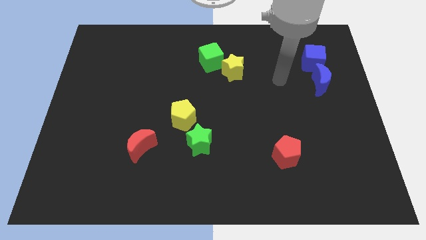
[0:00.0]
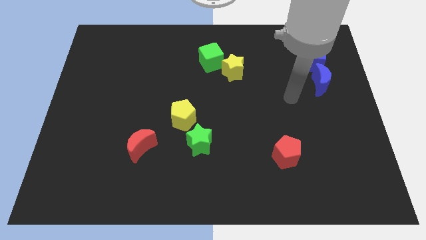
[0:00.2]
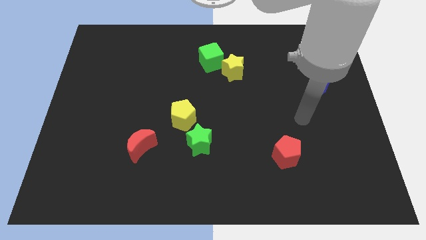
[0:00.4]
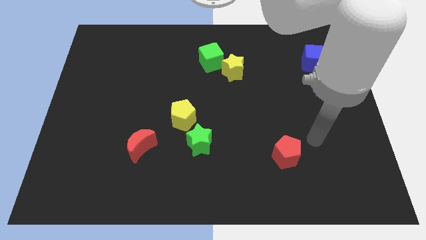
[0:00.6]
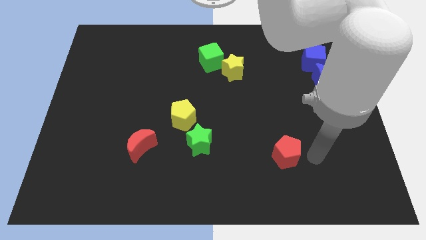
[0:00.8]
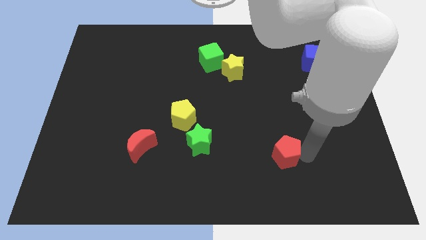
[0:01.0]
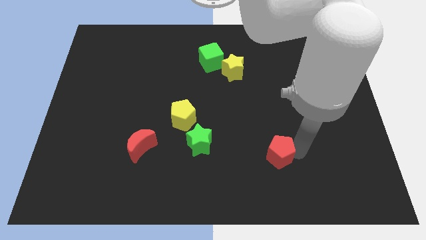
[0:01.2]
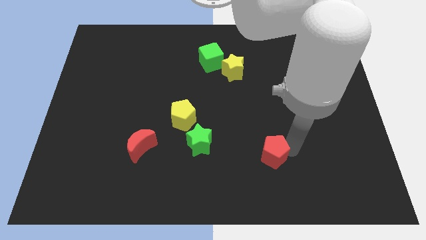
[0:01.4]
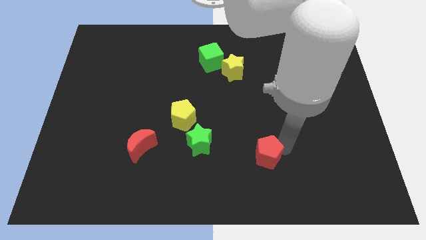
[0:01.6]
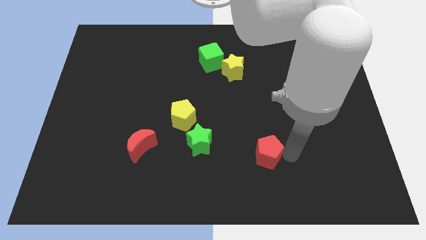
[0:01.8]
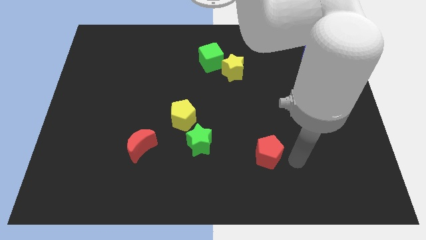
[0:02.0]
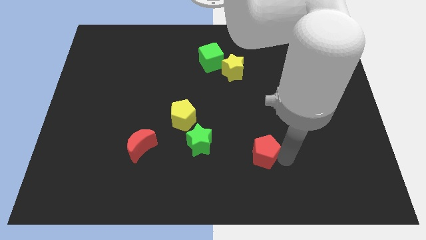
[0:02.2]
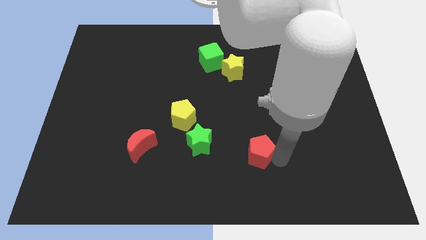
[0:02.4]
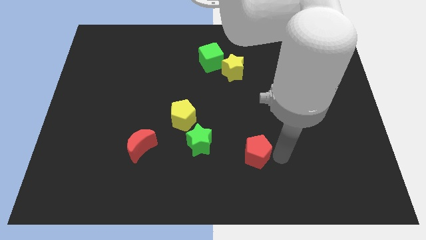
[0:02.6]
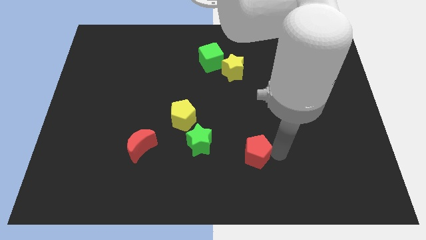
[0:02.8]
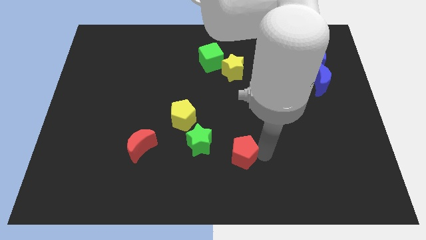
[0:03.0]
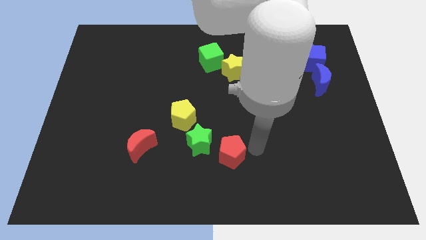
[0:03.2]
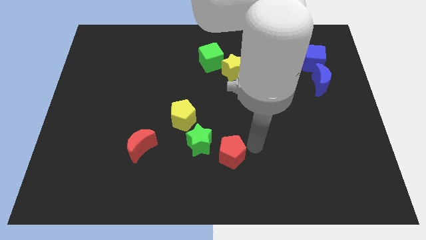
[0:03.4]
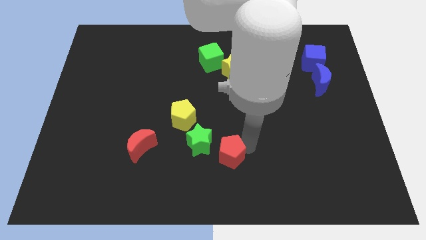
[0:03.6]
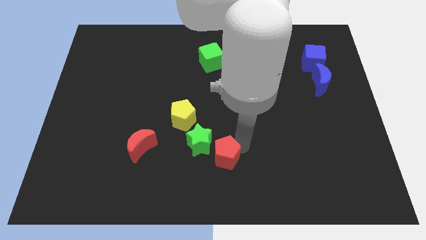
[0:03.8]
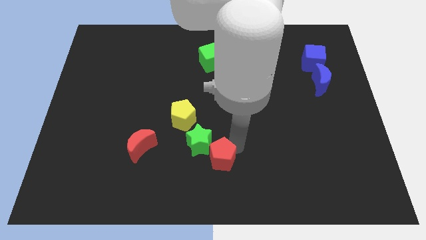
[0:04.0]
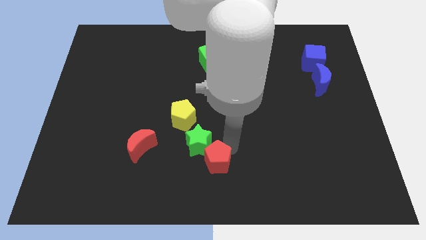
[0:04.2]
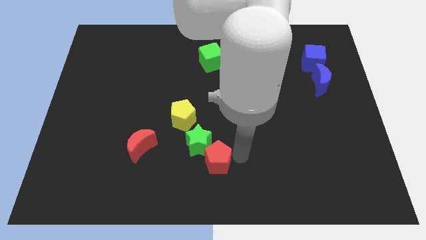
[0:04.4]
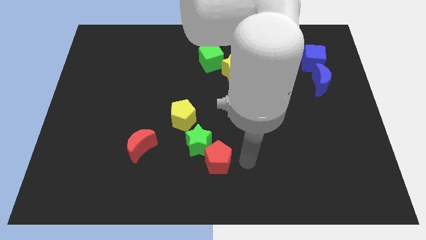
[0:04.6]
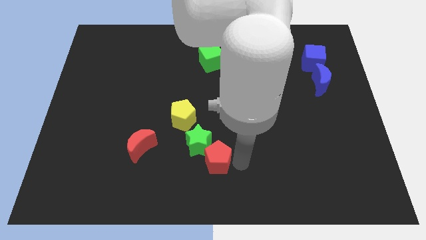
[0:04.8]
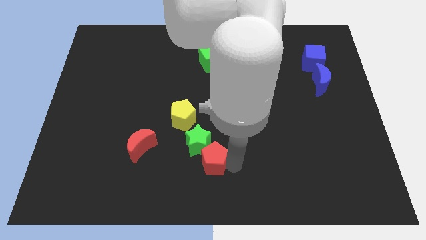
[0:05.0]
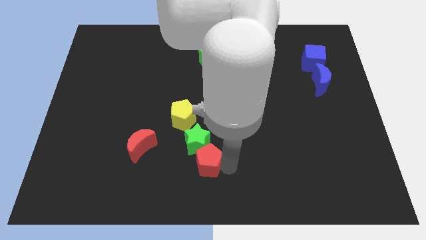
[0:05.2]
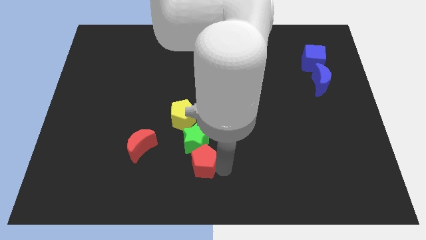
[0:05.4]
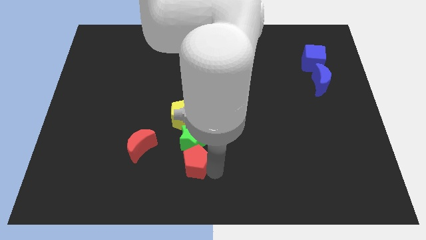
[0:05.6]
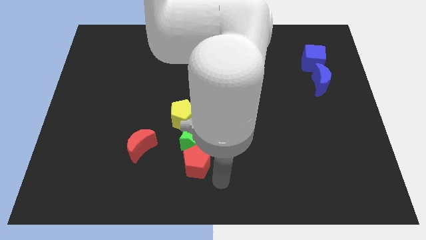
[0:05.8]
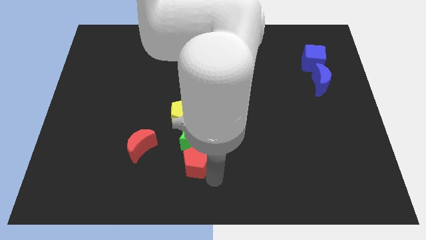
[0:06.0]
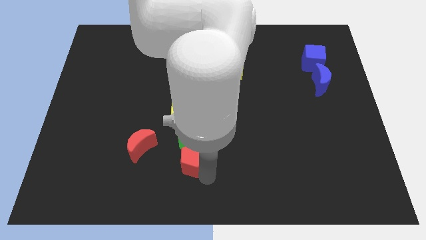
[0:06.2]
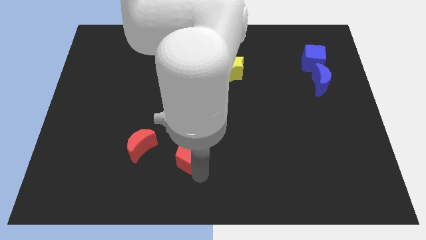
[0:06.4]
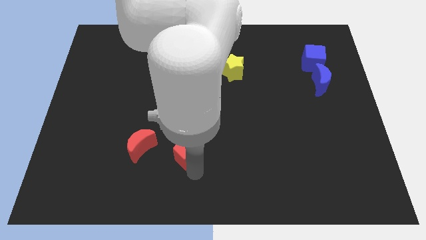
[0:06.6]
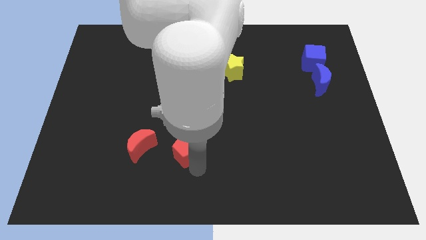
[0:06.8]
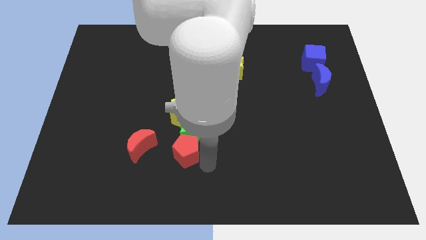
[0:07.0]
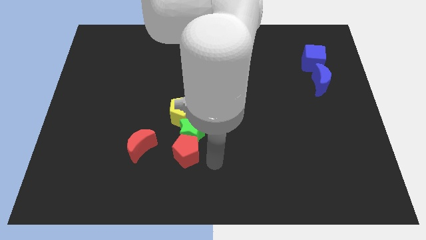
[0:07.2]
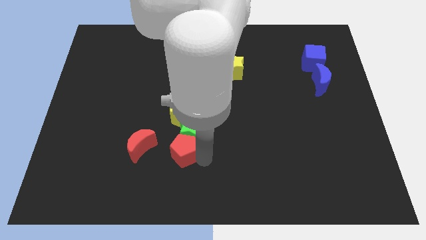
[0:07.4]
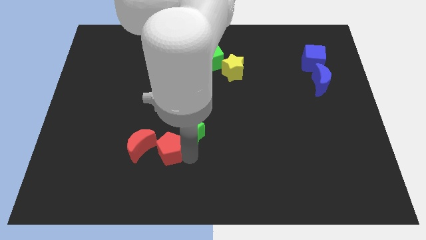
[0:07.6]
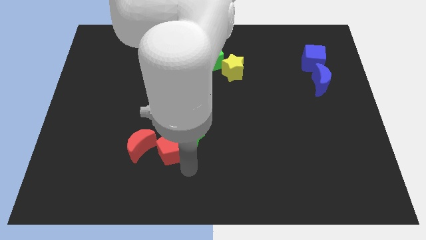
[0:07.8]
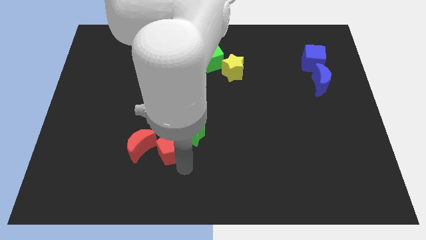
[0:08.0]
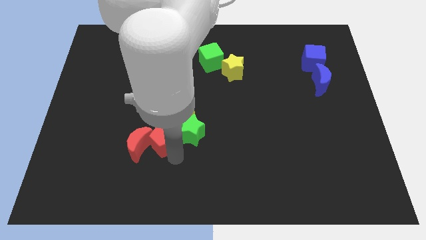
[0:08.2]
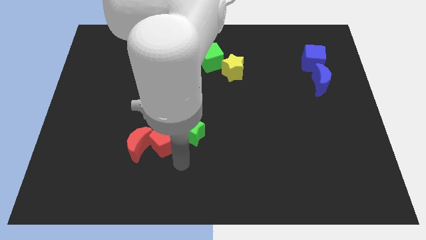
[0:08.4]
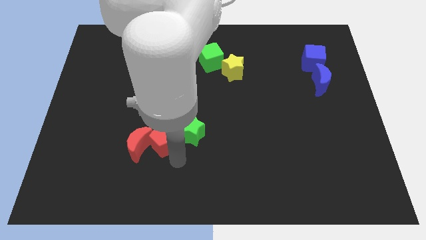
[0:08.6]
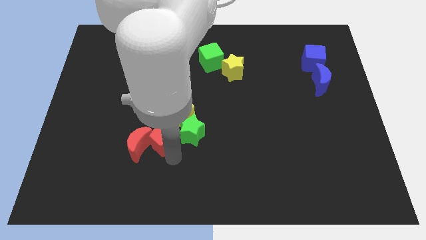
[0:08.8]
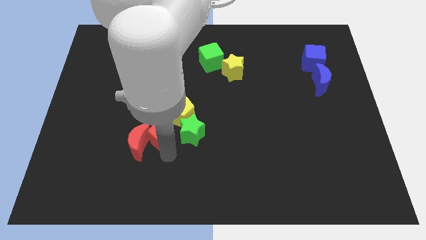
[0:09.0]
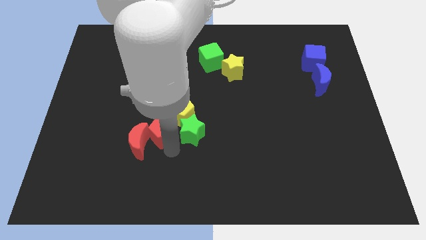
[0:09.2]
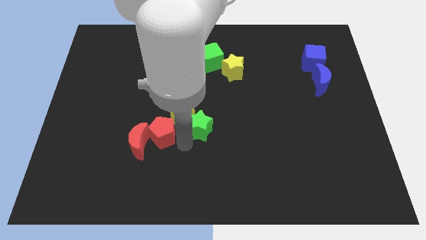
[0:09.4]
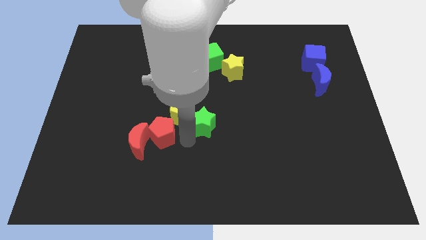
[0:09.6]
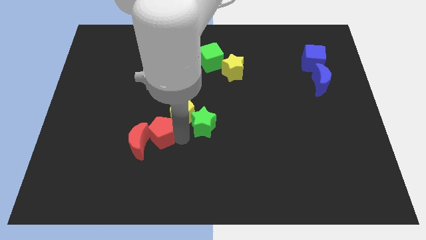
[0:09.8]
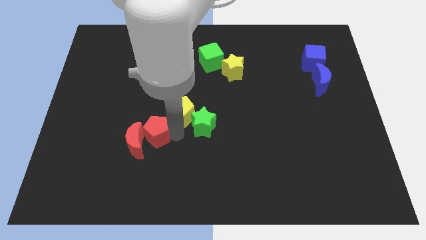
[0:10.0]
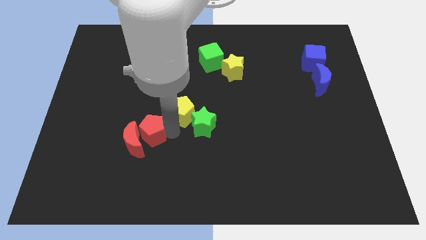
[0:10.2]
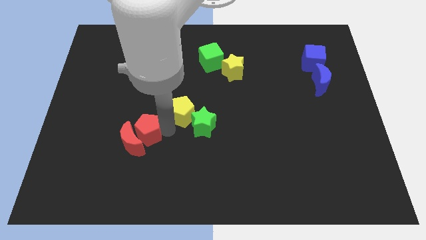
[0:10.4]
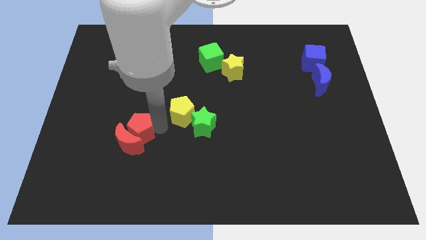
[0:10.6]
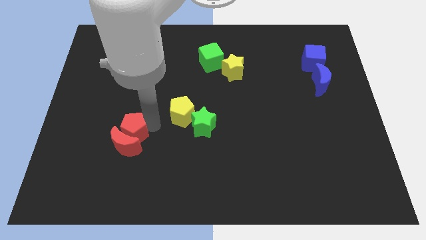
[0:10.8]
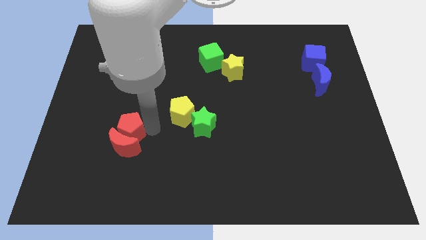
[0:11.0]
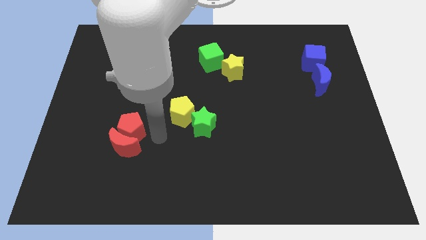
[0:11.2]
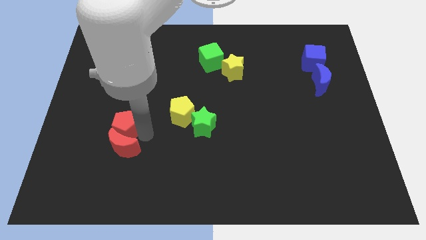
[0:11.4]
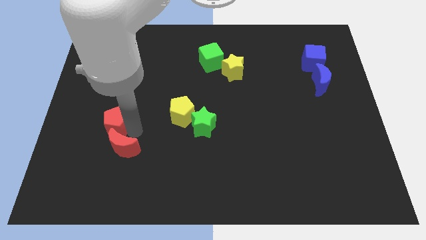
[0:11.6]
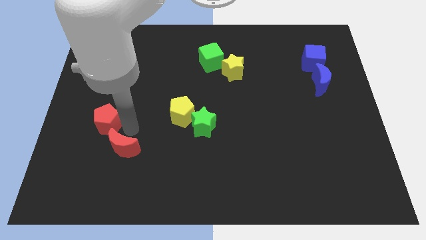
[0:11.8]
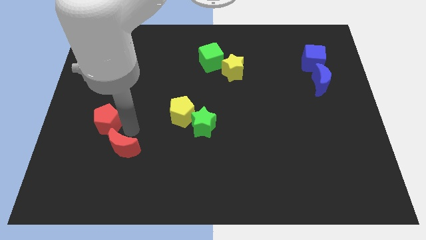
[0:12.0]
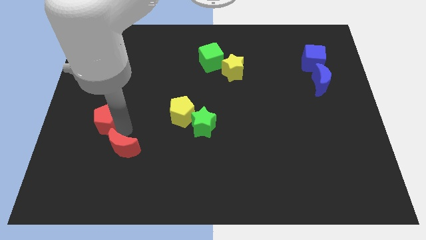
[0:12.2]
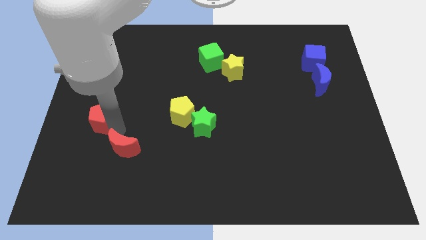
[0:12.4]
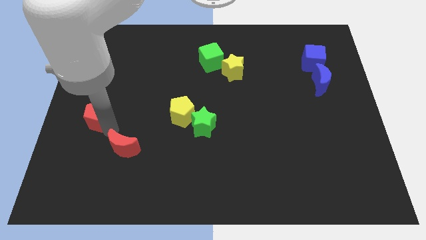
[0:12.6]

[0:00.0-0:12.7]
push the red pentagon to the left side

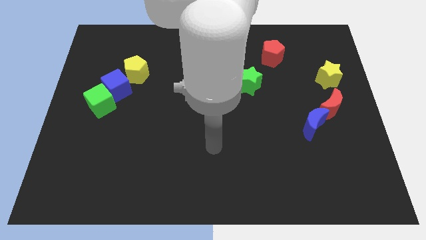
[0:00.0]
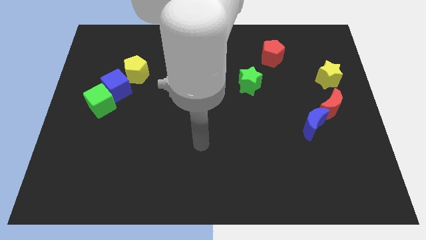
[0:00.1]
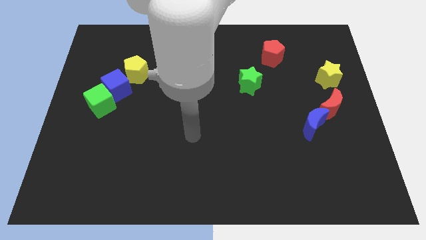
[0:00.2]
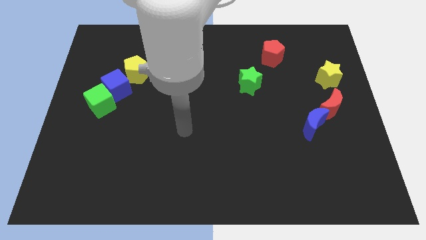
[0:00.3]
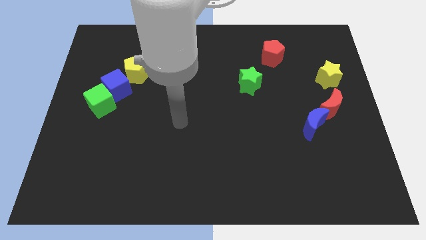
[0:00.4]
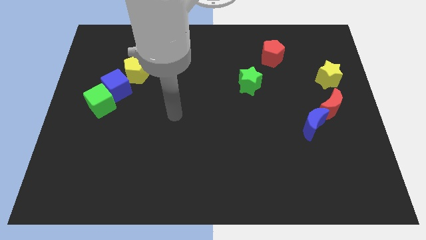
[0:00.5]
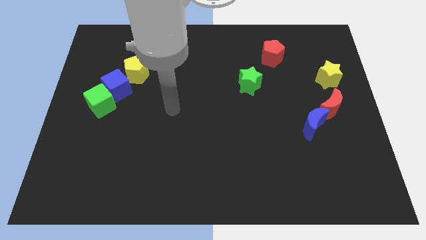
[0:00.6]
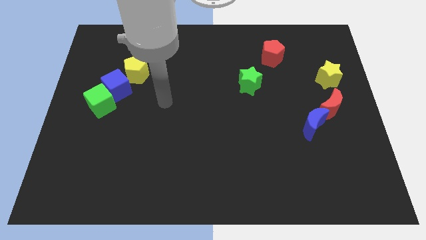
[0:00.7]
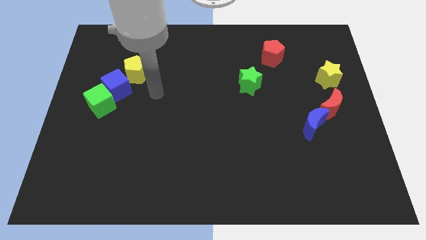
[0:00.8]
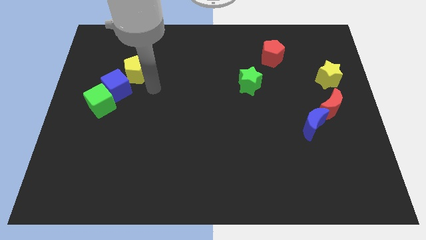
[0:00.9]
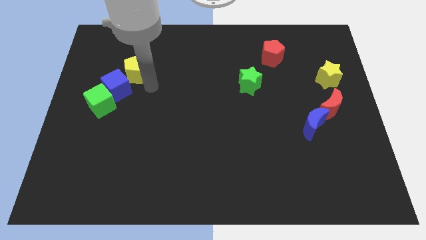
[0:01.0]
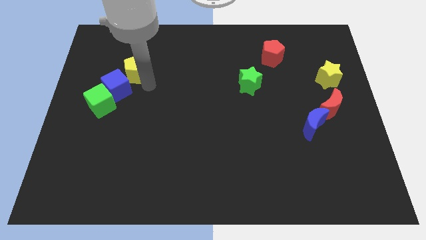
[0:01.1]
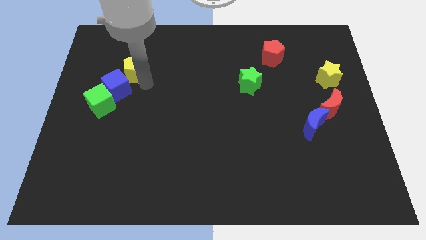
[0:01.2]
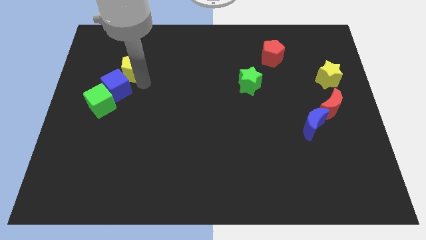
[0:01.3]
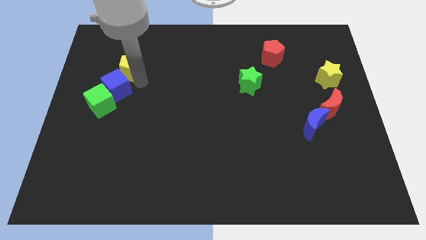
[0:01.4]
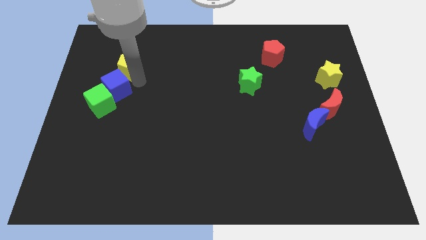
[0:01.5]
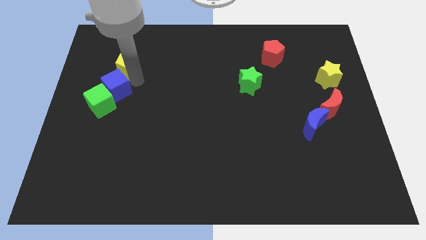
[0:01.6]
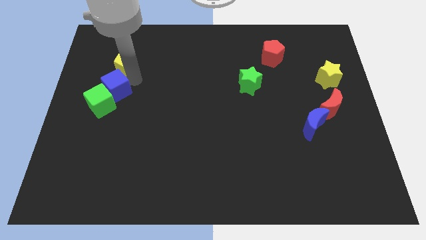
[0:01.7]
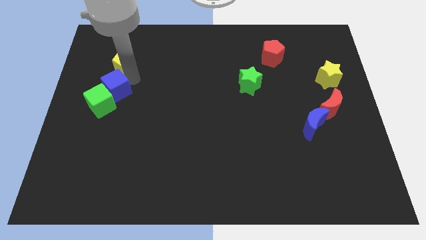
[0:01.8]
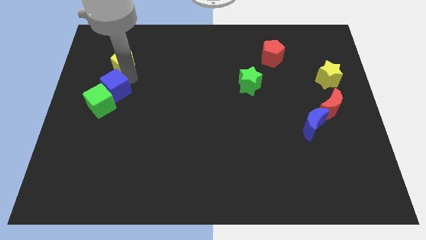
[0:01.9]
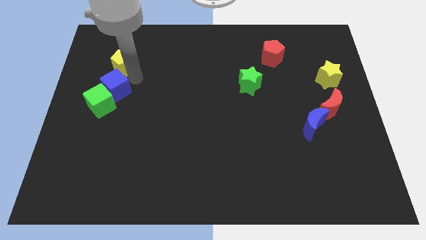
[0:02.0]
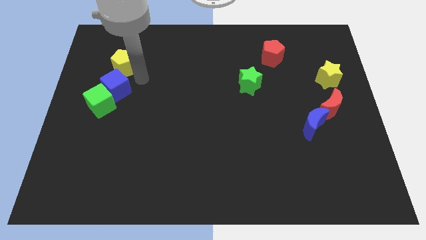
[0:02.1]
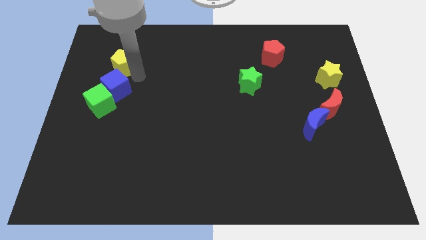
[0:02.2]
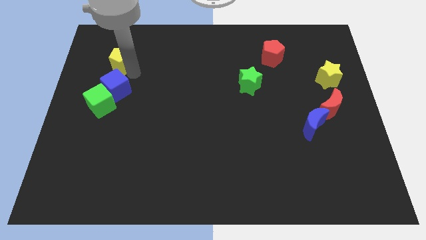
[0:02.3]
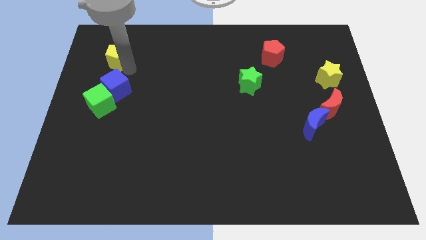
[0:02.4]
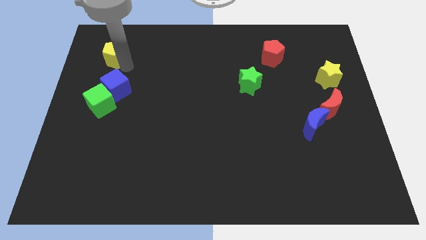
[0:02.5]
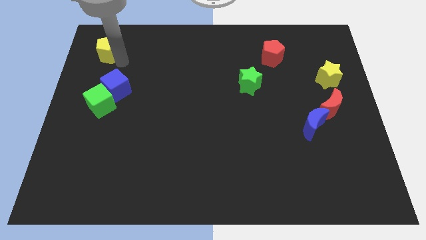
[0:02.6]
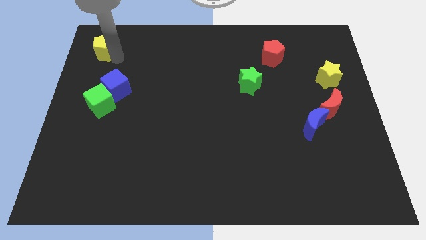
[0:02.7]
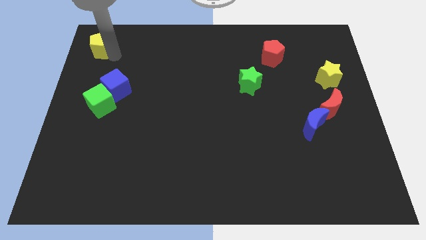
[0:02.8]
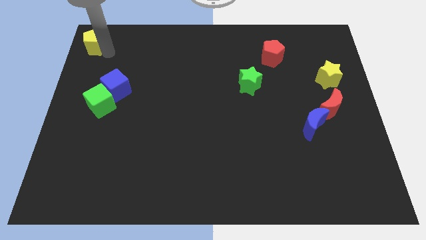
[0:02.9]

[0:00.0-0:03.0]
push the yellow pentagon to the top left of the board
